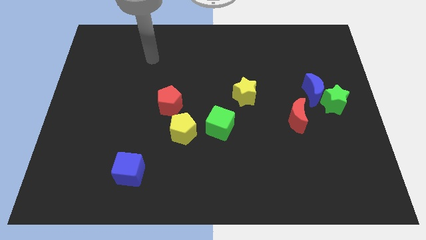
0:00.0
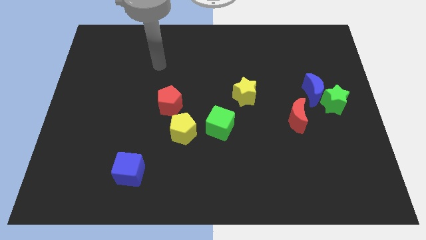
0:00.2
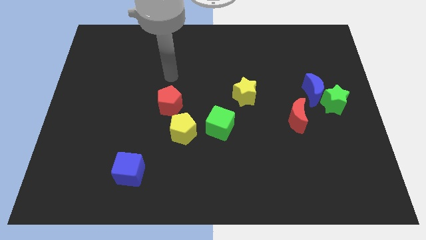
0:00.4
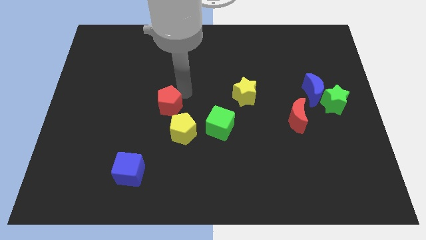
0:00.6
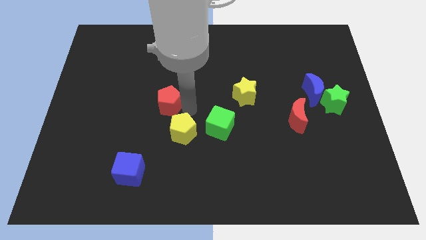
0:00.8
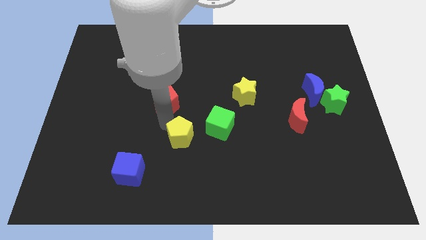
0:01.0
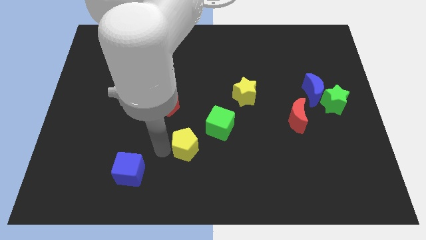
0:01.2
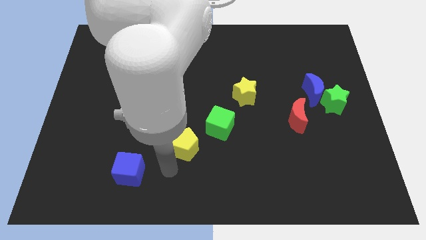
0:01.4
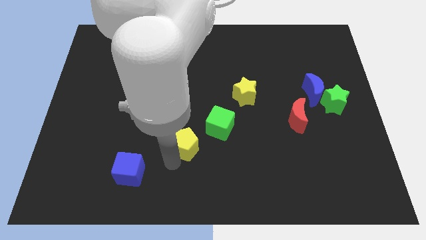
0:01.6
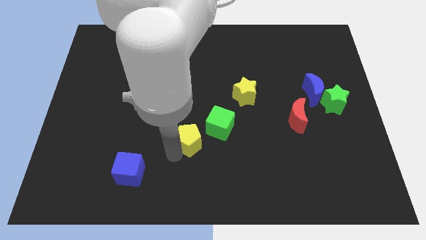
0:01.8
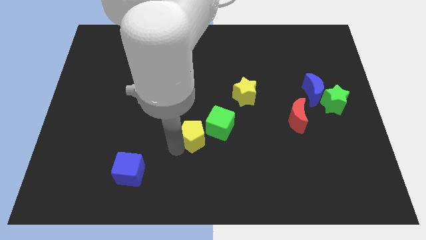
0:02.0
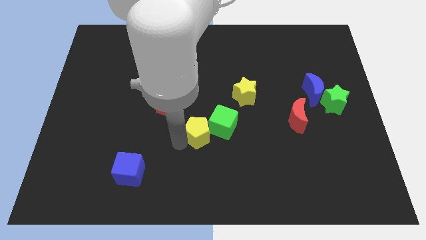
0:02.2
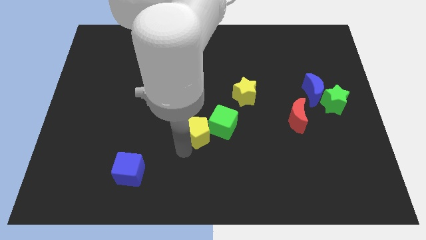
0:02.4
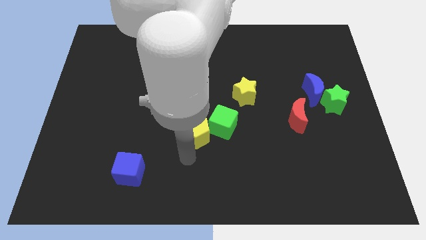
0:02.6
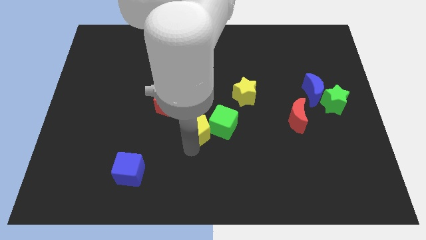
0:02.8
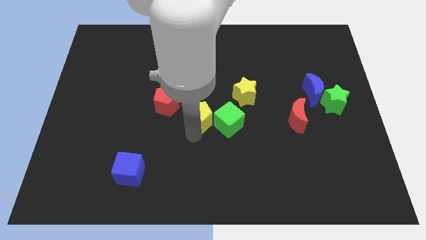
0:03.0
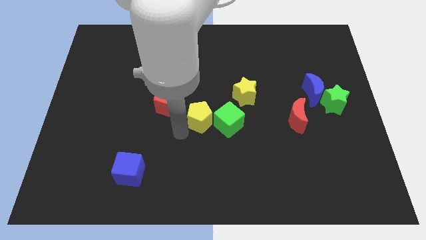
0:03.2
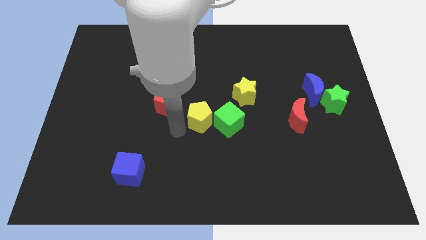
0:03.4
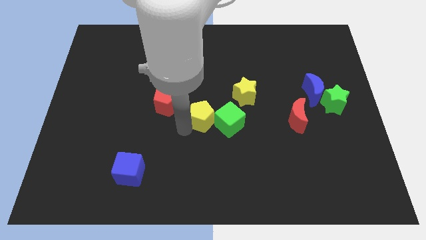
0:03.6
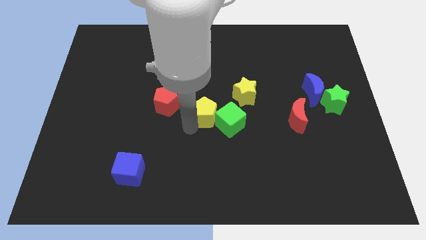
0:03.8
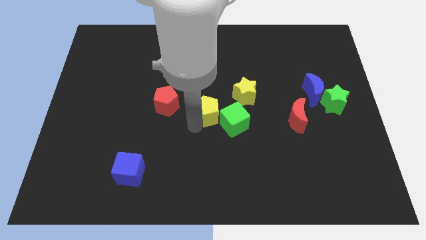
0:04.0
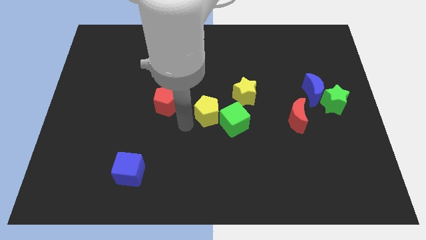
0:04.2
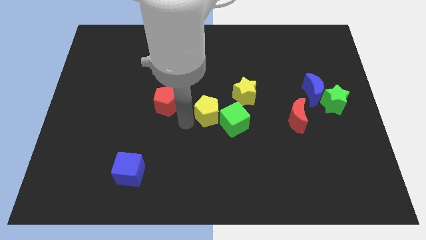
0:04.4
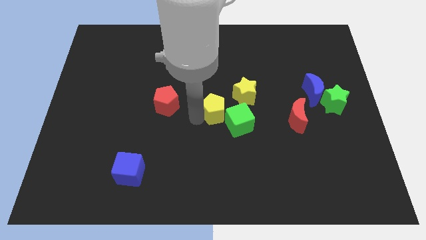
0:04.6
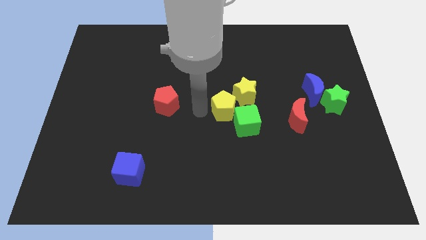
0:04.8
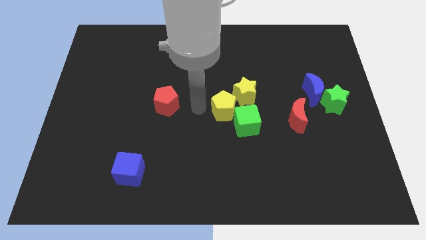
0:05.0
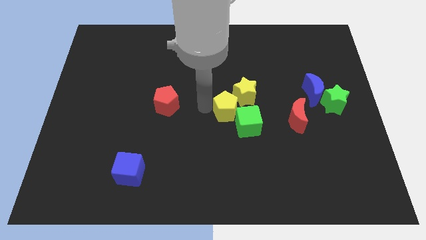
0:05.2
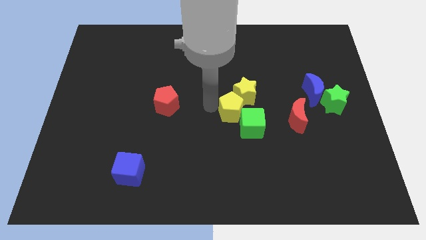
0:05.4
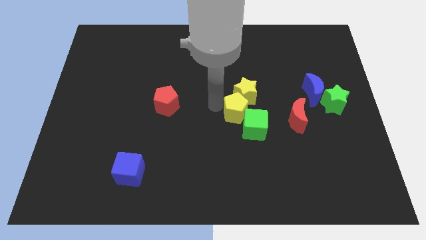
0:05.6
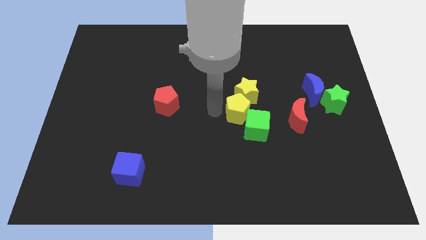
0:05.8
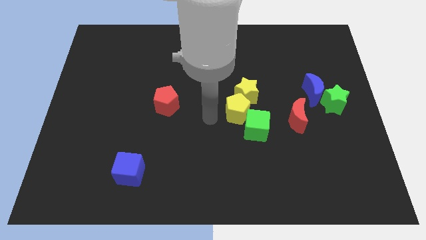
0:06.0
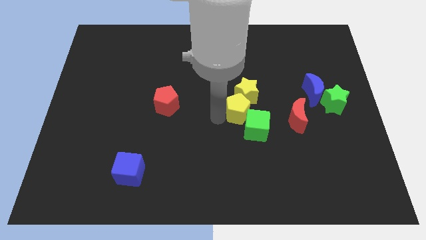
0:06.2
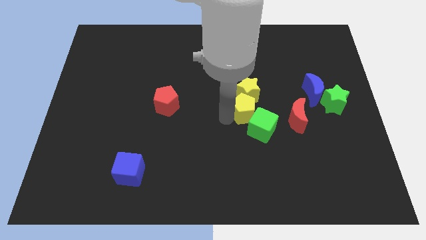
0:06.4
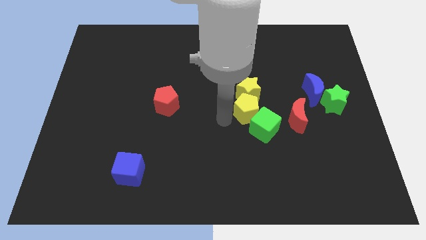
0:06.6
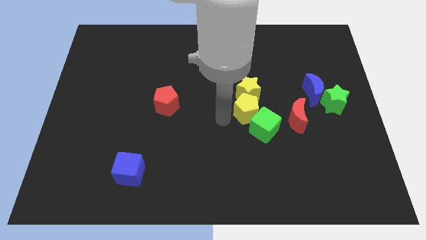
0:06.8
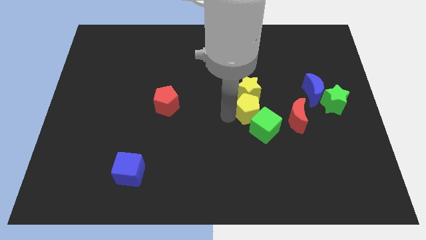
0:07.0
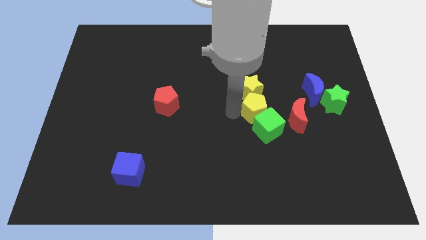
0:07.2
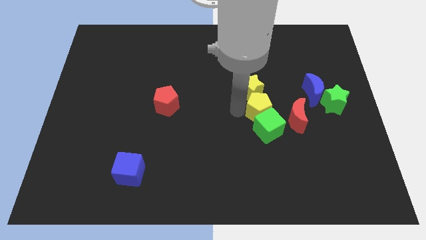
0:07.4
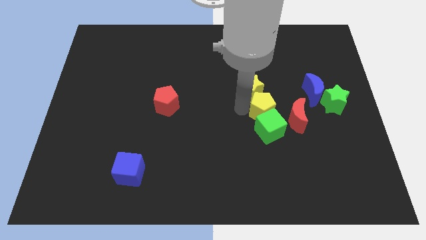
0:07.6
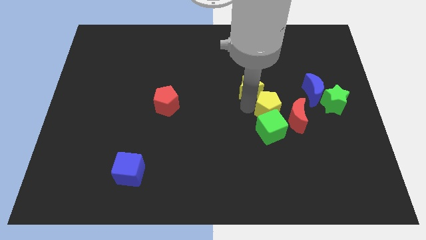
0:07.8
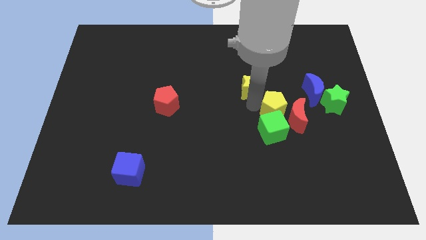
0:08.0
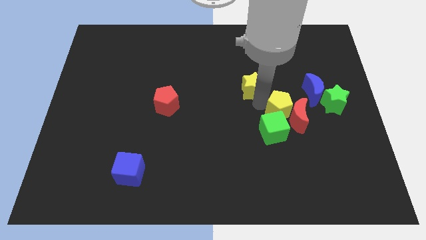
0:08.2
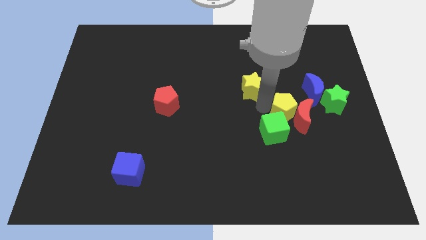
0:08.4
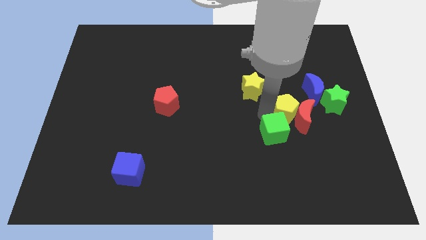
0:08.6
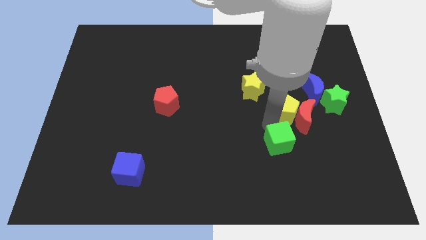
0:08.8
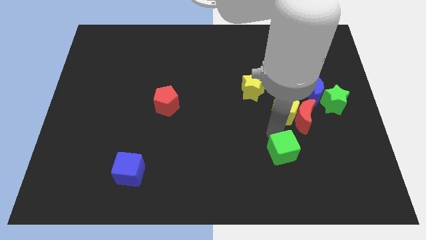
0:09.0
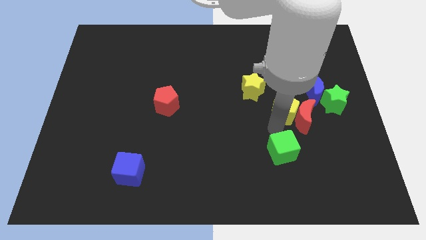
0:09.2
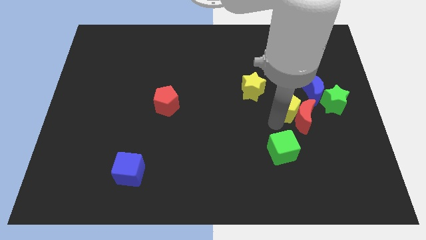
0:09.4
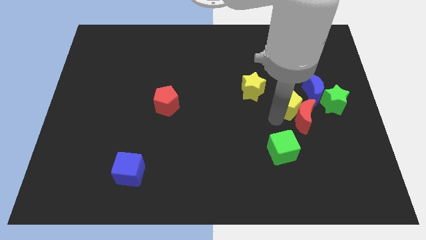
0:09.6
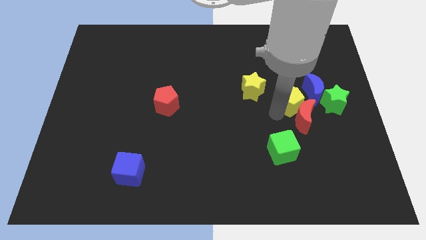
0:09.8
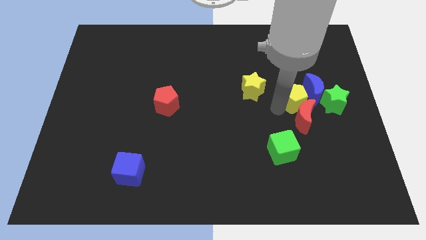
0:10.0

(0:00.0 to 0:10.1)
move the yellow pentagon towards the blue moon

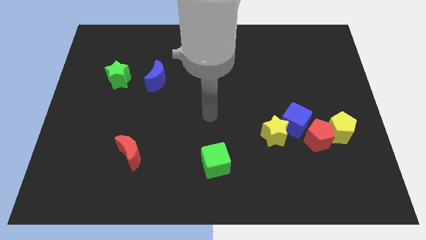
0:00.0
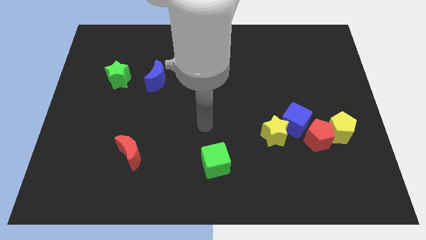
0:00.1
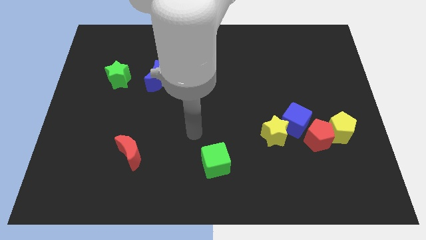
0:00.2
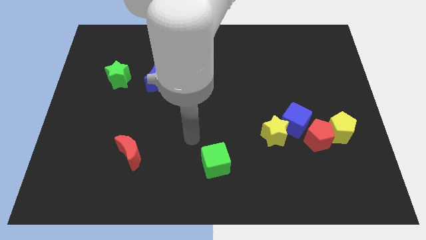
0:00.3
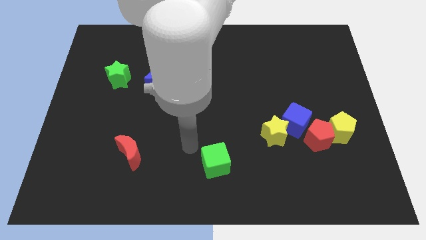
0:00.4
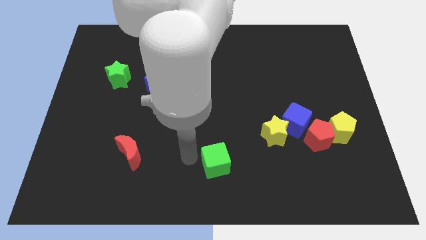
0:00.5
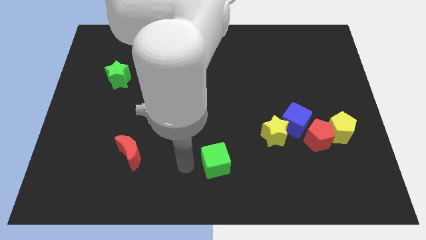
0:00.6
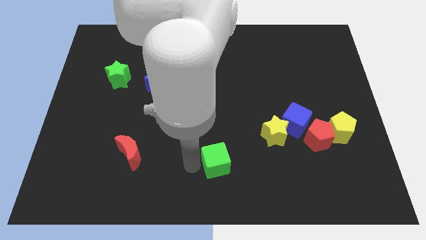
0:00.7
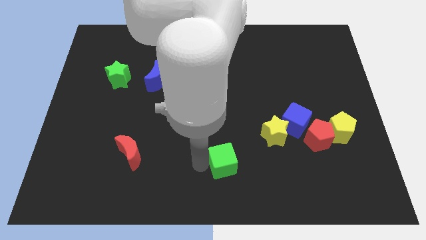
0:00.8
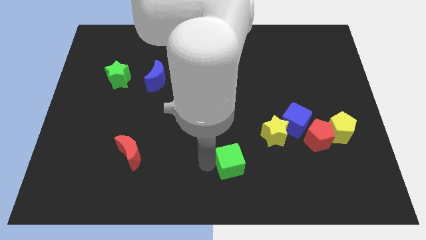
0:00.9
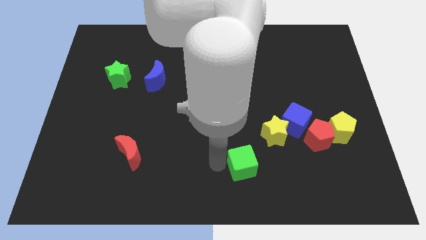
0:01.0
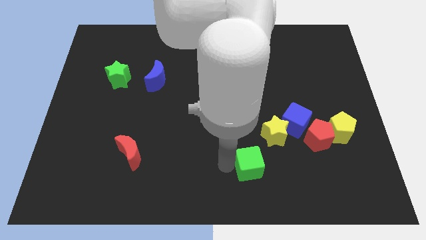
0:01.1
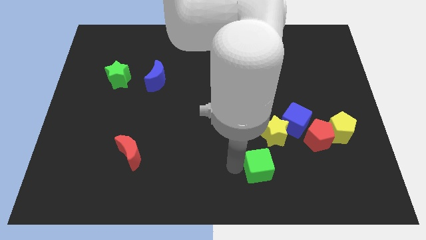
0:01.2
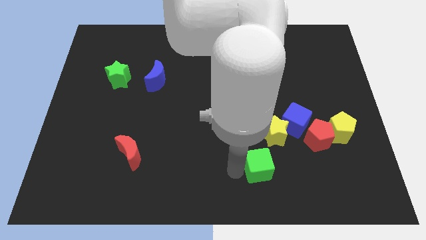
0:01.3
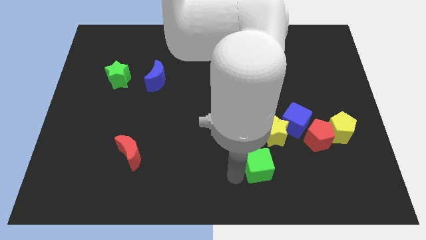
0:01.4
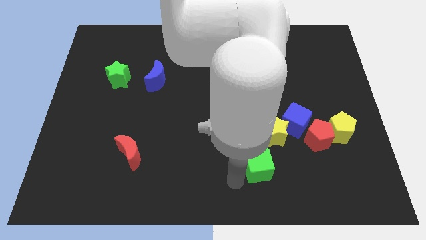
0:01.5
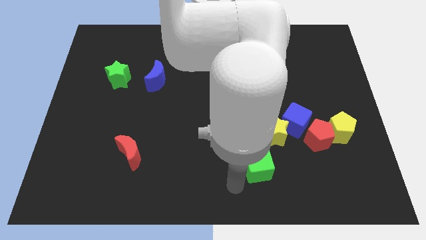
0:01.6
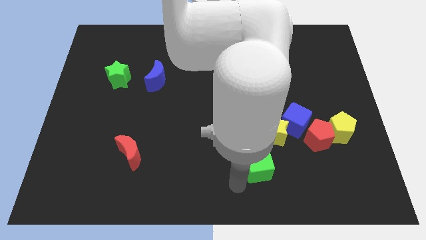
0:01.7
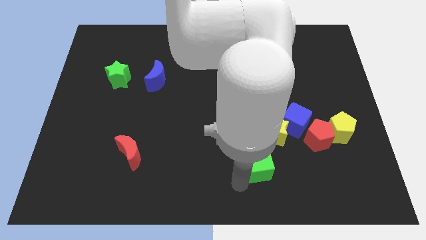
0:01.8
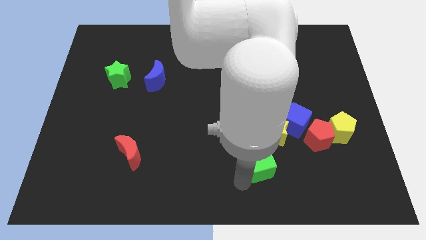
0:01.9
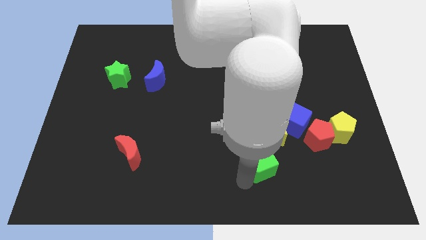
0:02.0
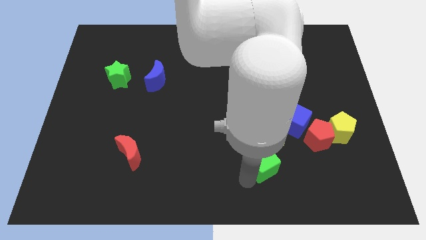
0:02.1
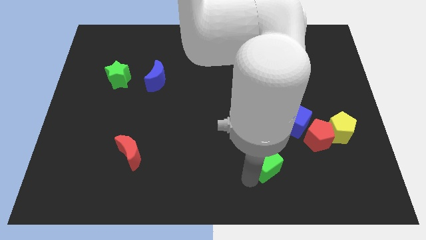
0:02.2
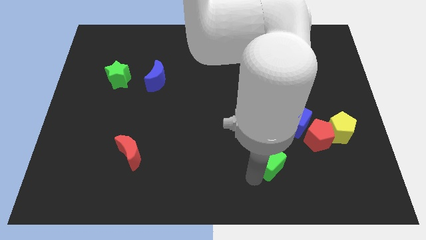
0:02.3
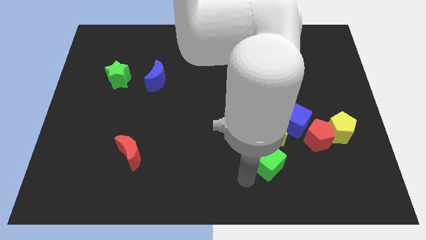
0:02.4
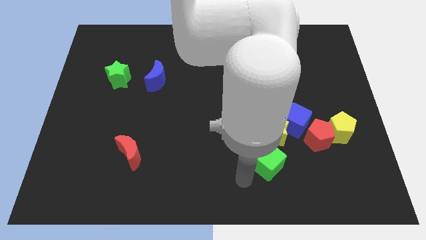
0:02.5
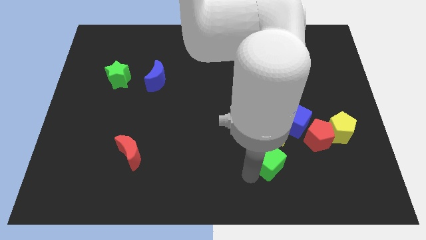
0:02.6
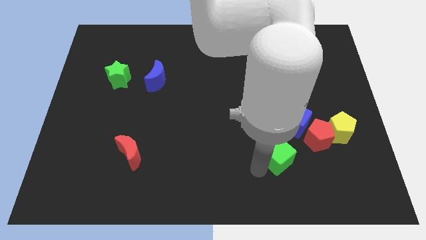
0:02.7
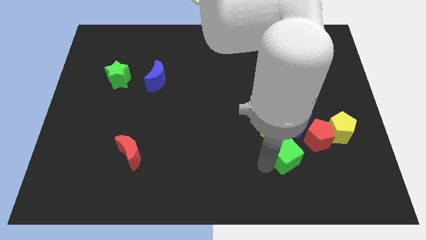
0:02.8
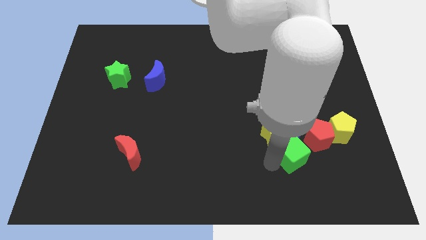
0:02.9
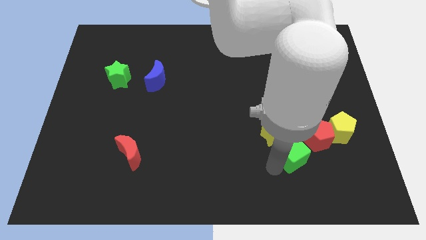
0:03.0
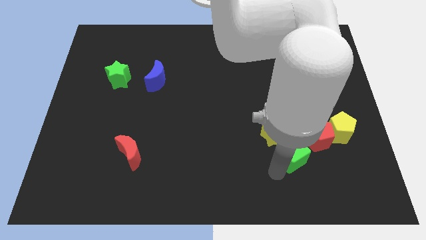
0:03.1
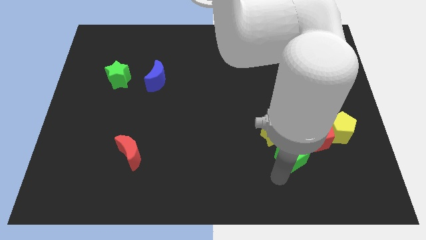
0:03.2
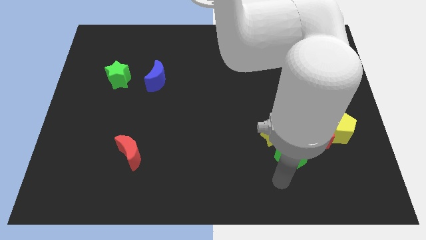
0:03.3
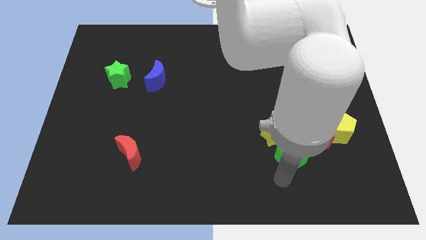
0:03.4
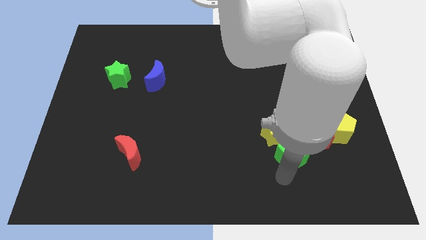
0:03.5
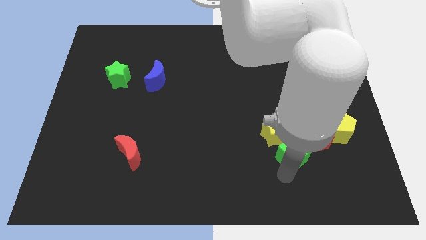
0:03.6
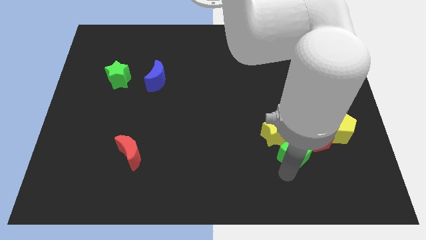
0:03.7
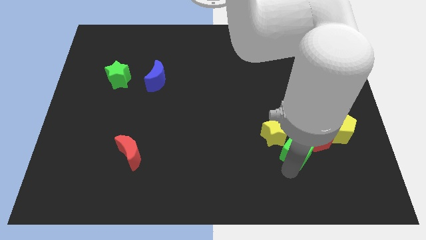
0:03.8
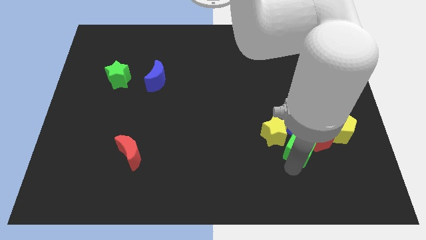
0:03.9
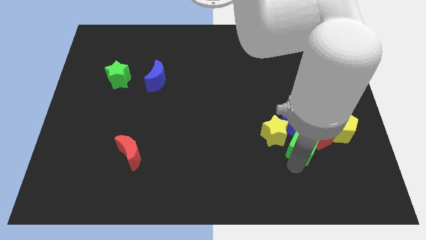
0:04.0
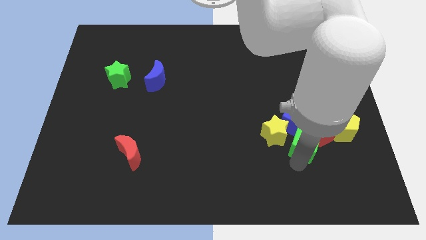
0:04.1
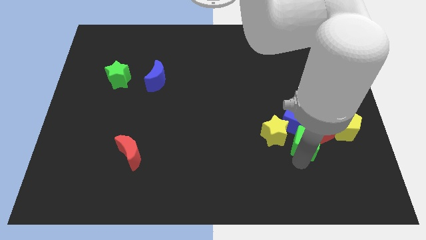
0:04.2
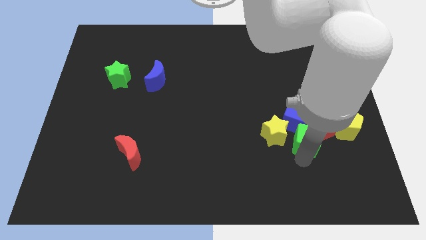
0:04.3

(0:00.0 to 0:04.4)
put the green cube towards the blue cube
